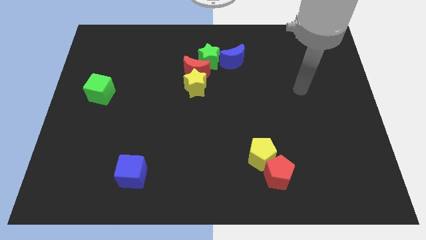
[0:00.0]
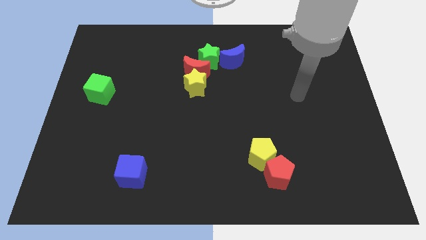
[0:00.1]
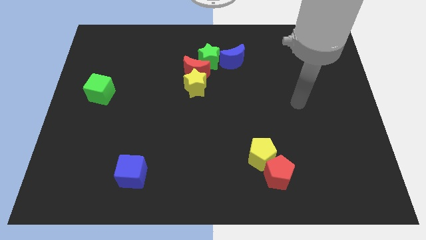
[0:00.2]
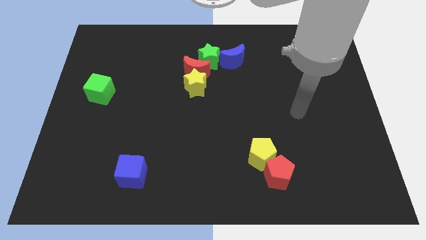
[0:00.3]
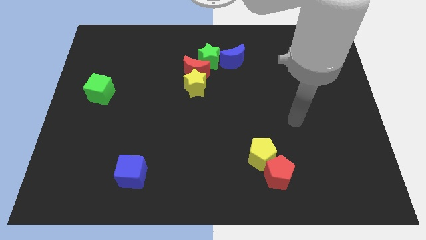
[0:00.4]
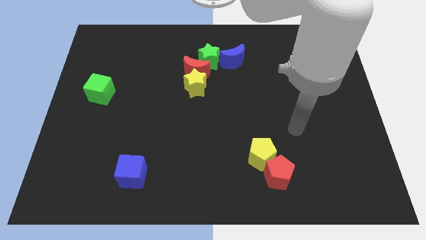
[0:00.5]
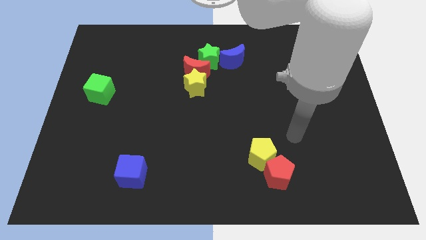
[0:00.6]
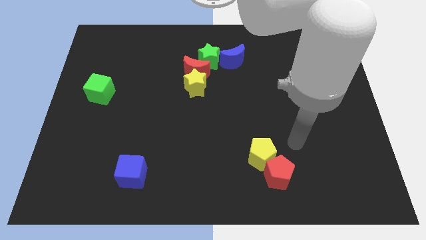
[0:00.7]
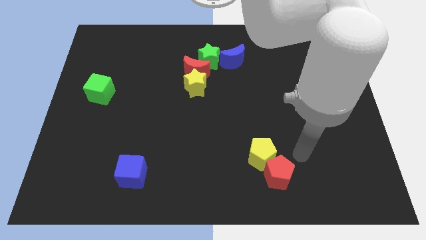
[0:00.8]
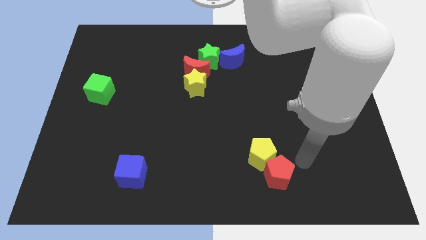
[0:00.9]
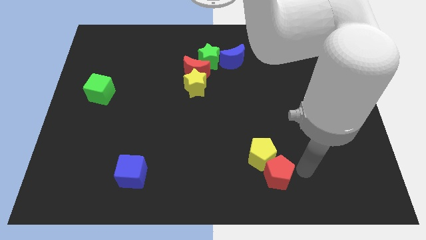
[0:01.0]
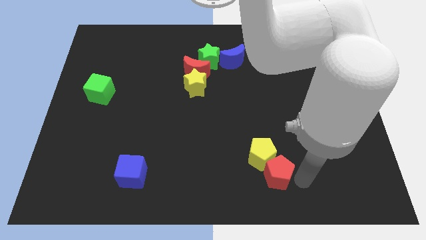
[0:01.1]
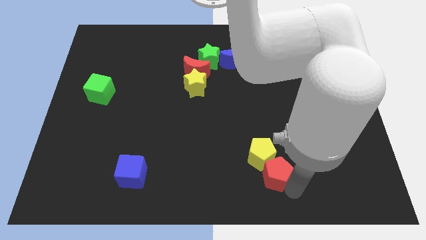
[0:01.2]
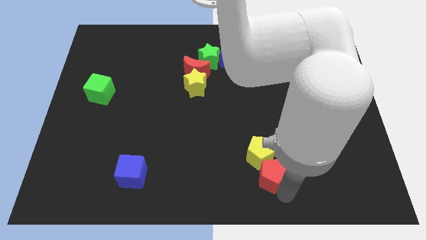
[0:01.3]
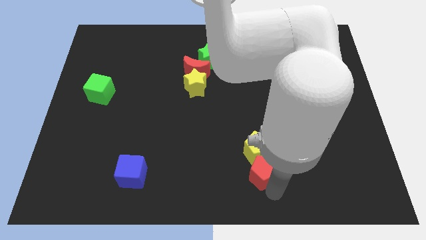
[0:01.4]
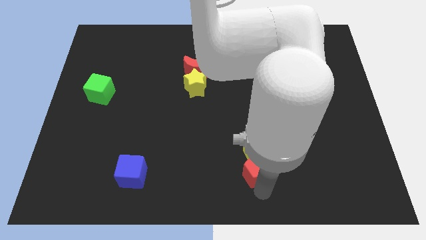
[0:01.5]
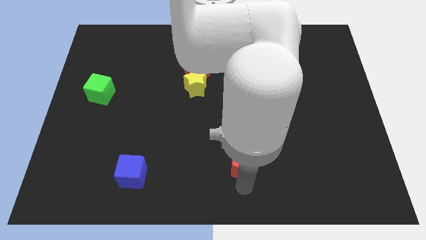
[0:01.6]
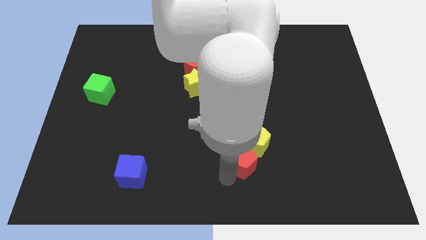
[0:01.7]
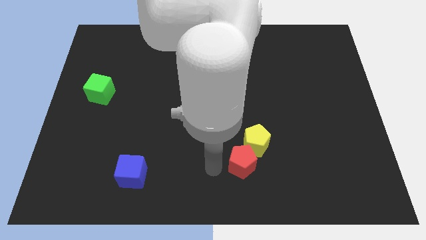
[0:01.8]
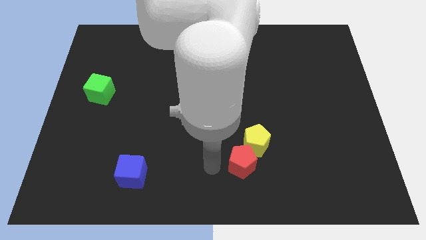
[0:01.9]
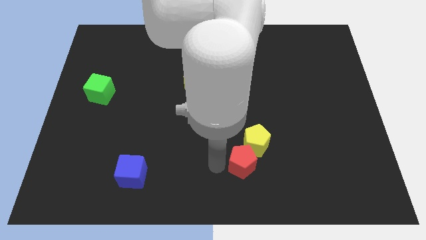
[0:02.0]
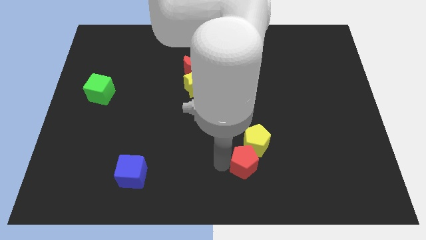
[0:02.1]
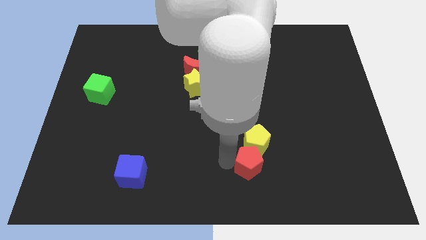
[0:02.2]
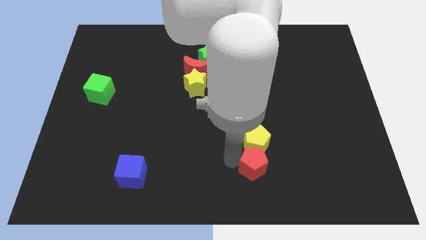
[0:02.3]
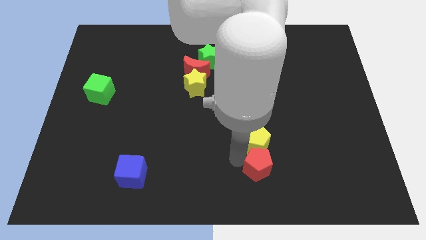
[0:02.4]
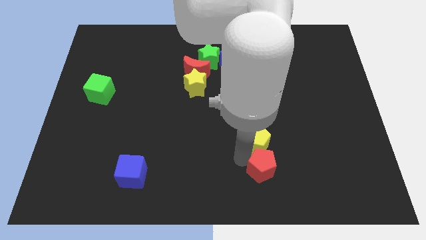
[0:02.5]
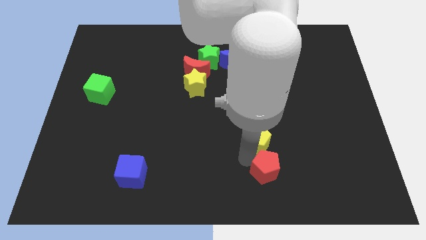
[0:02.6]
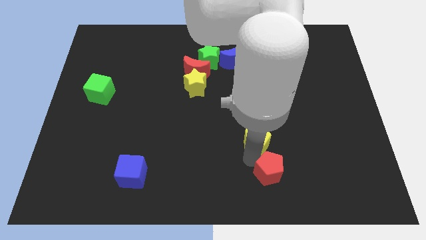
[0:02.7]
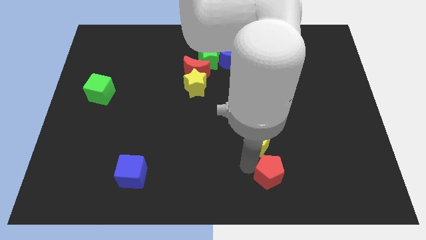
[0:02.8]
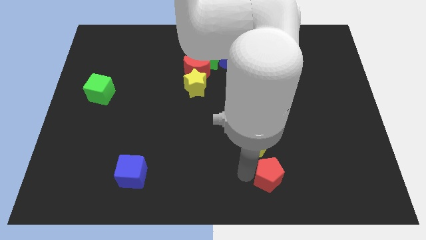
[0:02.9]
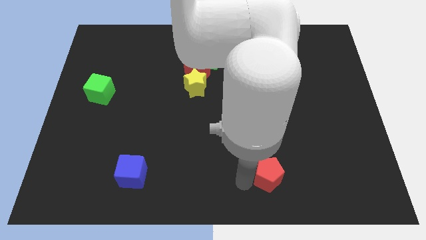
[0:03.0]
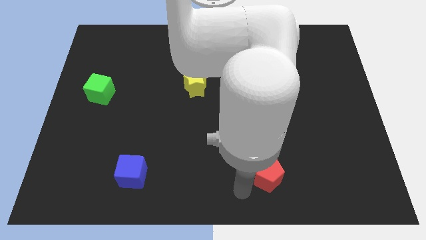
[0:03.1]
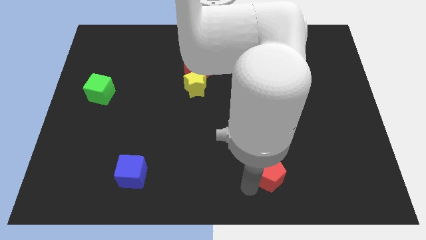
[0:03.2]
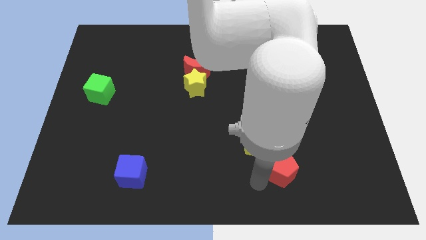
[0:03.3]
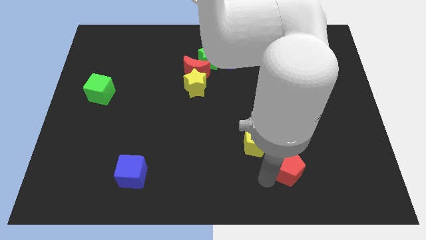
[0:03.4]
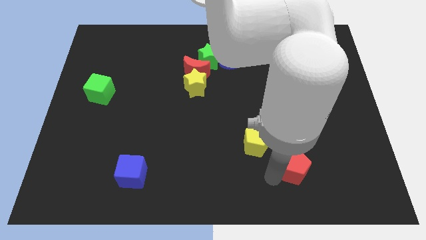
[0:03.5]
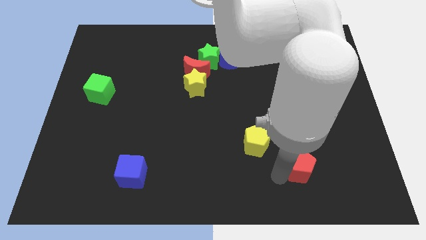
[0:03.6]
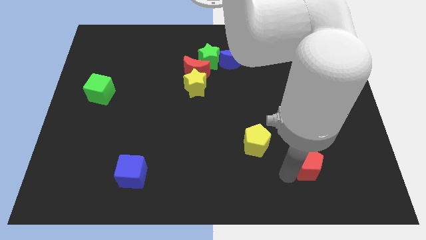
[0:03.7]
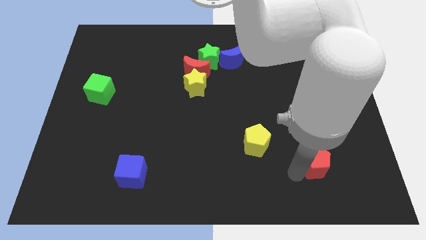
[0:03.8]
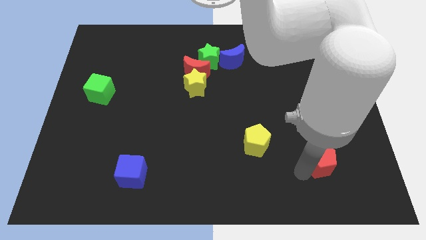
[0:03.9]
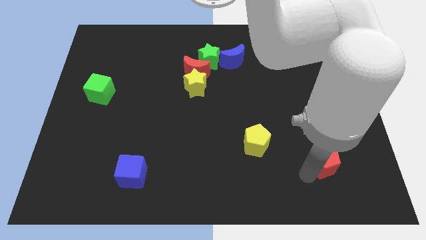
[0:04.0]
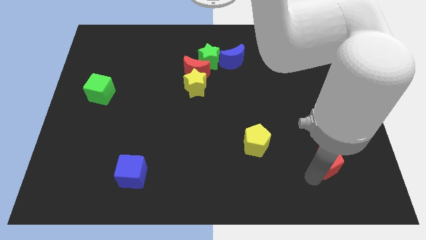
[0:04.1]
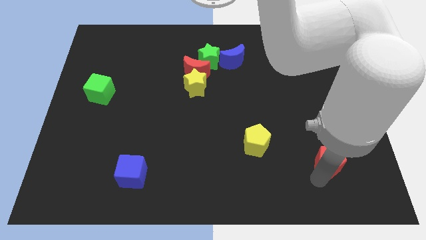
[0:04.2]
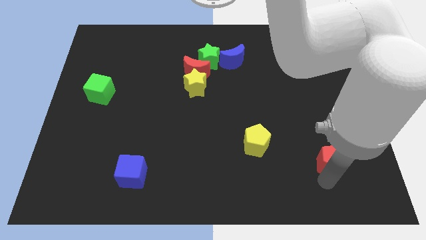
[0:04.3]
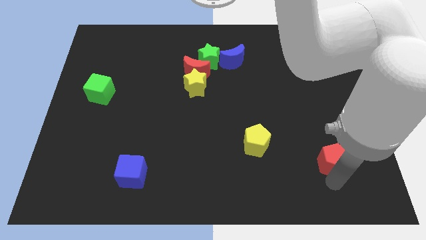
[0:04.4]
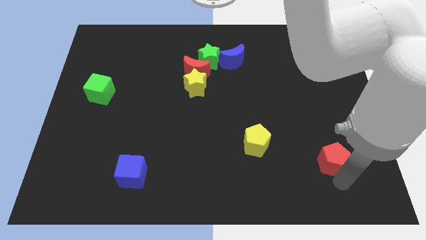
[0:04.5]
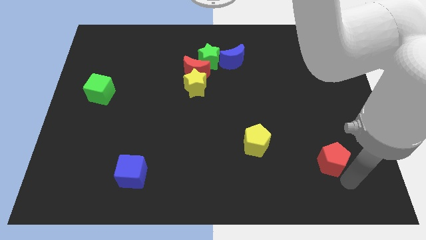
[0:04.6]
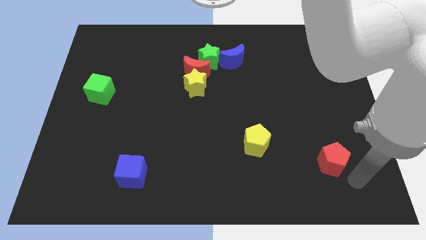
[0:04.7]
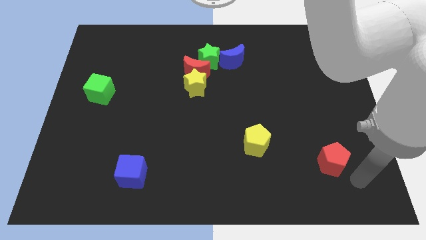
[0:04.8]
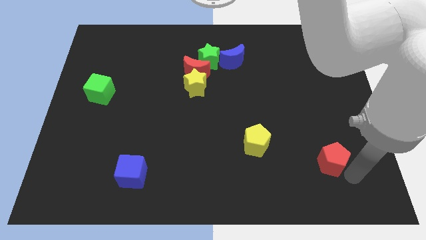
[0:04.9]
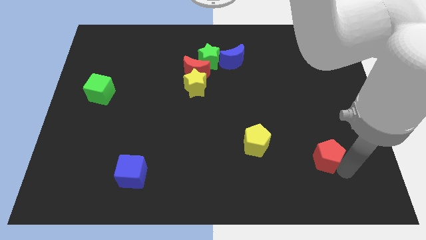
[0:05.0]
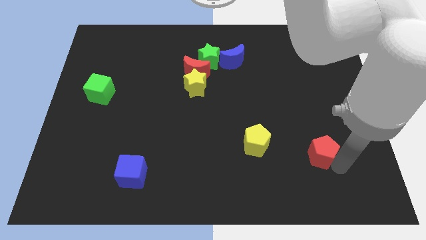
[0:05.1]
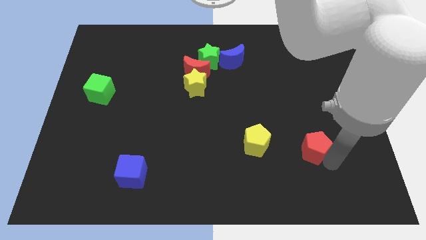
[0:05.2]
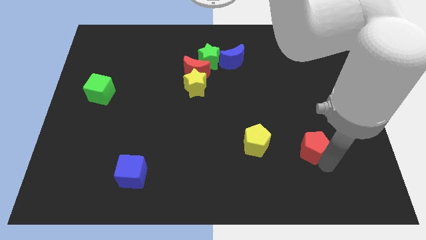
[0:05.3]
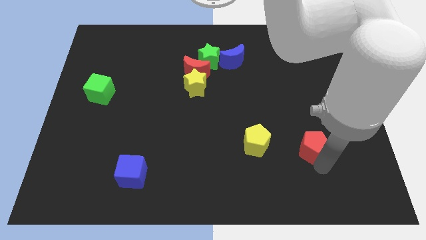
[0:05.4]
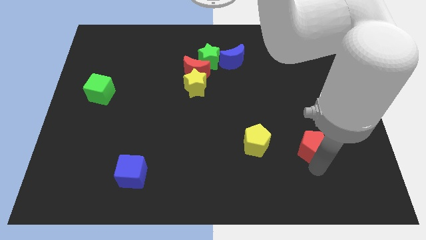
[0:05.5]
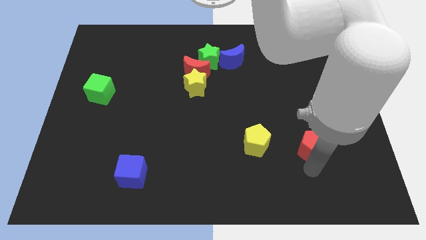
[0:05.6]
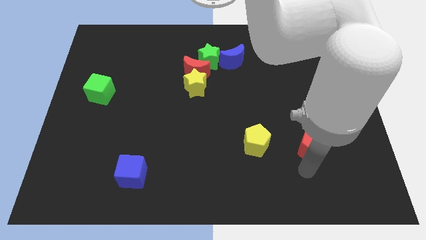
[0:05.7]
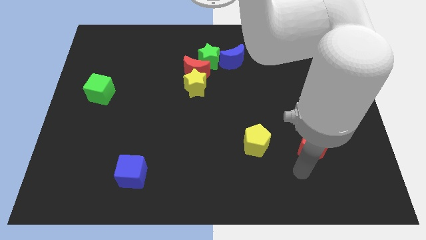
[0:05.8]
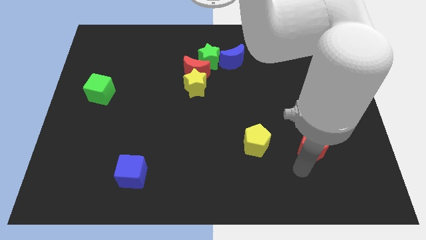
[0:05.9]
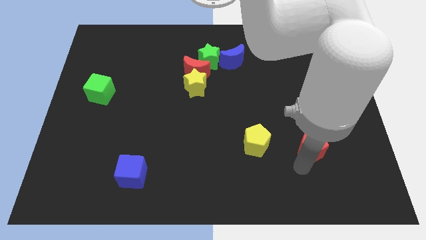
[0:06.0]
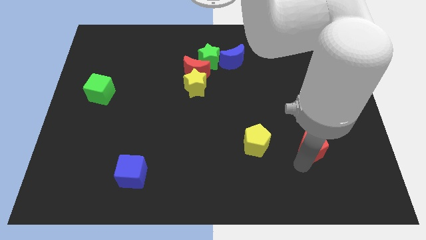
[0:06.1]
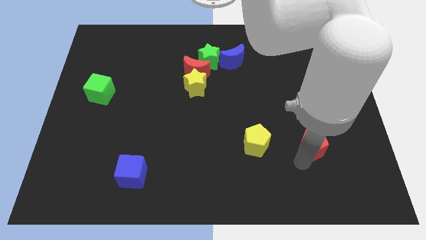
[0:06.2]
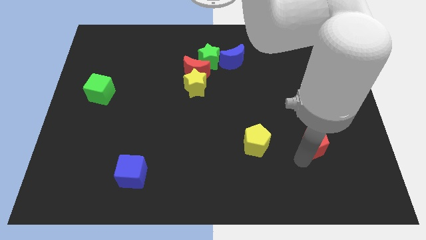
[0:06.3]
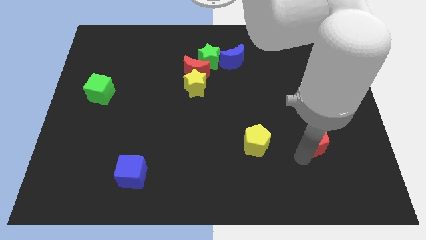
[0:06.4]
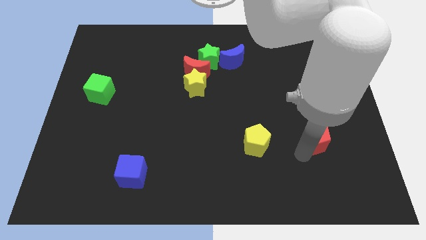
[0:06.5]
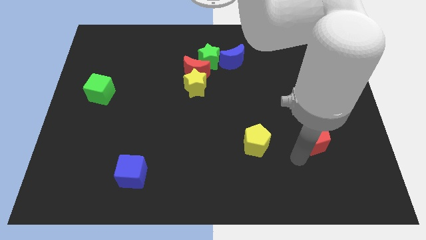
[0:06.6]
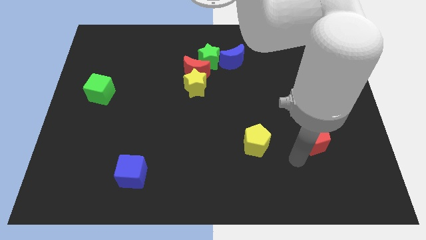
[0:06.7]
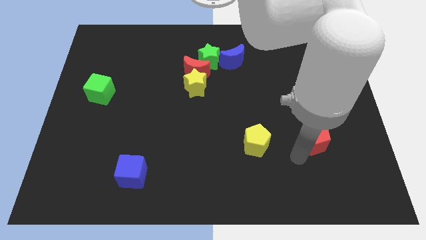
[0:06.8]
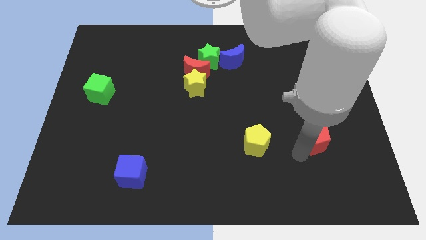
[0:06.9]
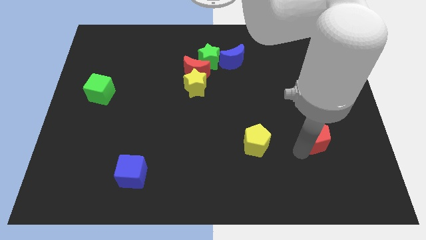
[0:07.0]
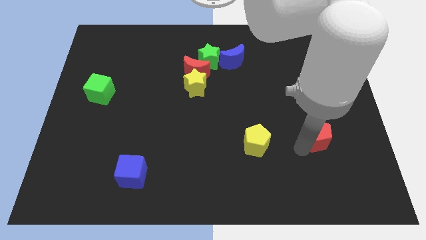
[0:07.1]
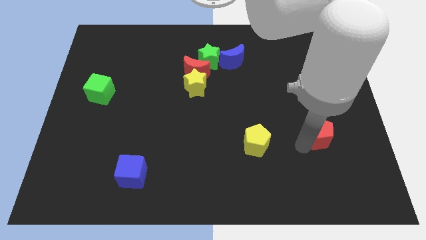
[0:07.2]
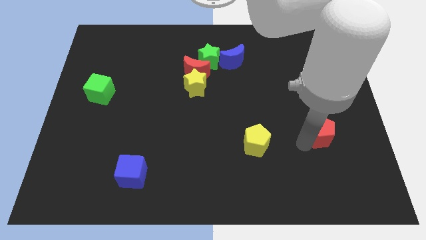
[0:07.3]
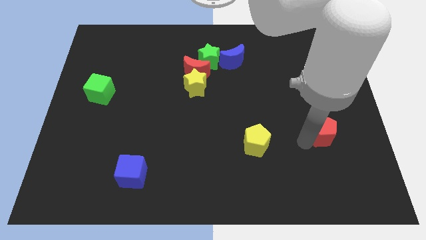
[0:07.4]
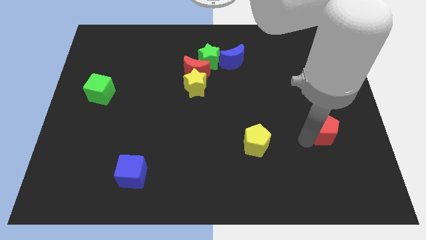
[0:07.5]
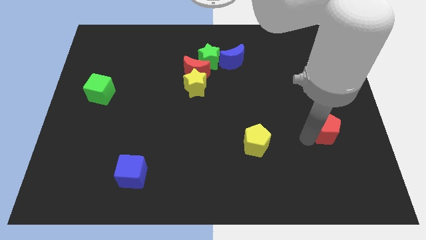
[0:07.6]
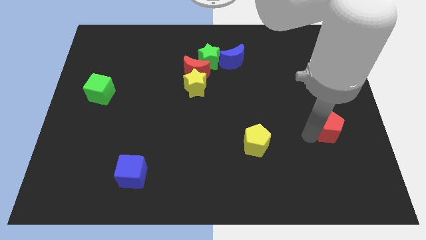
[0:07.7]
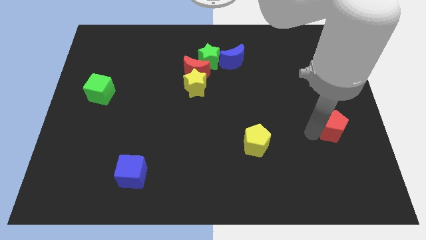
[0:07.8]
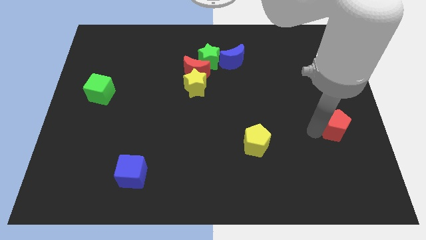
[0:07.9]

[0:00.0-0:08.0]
move the red pentagon to the right side
